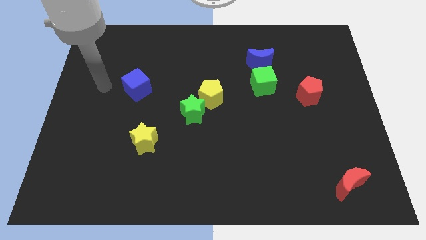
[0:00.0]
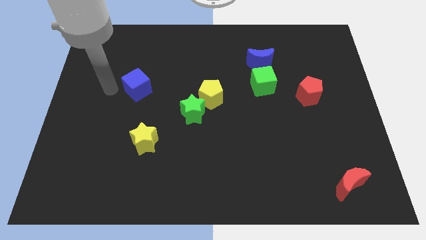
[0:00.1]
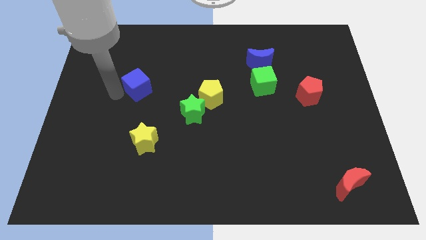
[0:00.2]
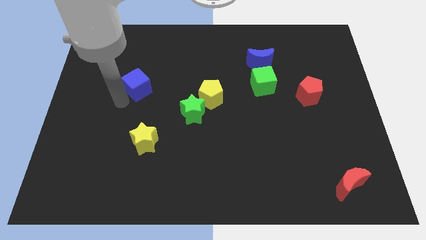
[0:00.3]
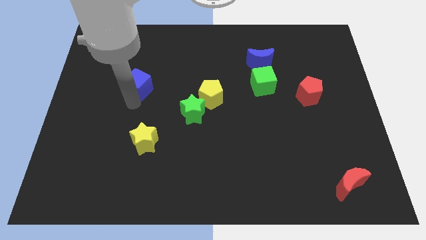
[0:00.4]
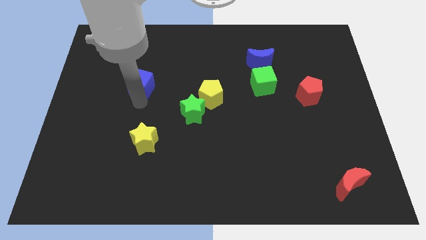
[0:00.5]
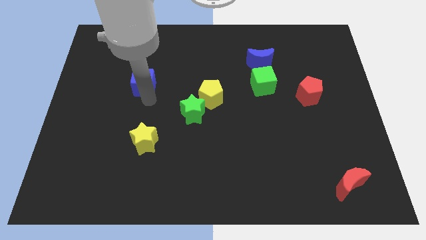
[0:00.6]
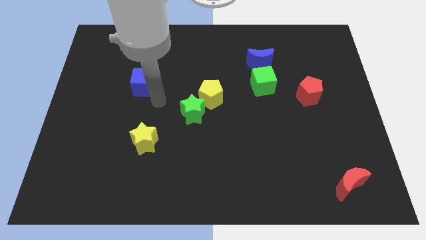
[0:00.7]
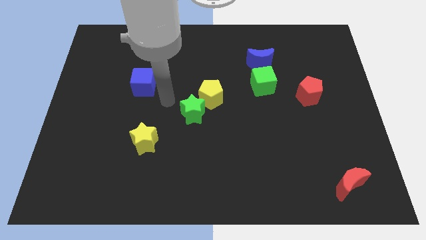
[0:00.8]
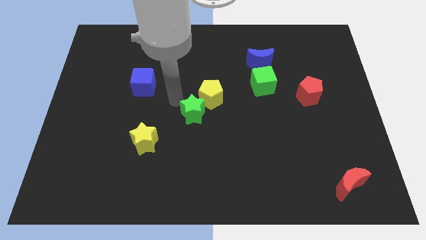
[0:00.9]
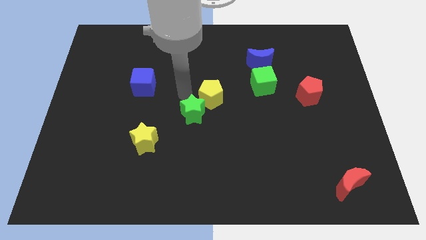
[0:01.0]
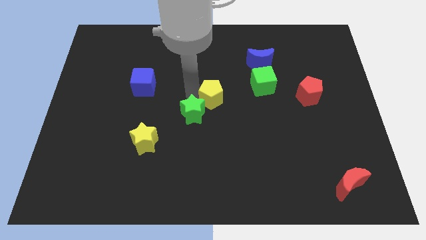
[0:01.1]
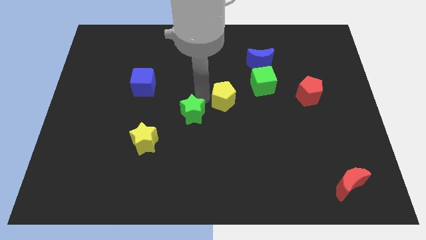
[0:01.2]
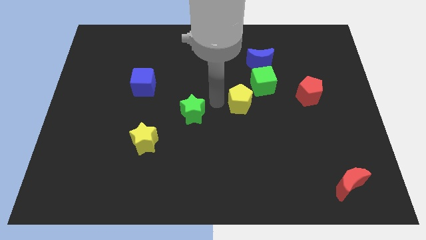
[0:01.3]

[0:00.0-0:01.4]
move the green star away from the yellow pentagon

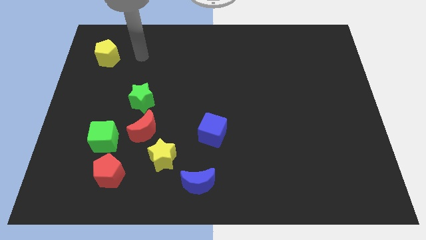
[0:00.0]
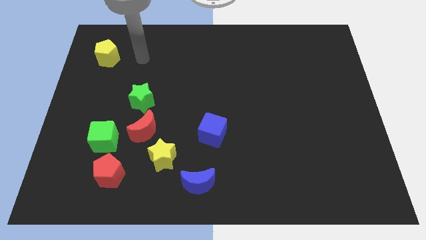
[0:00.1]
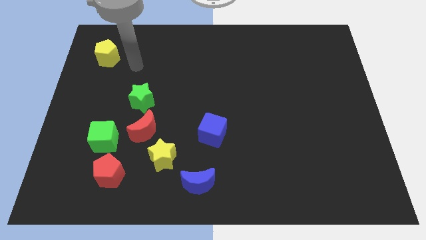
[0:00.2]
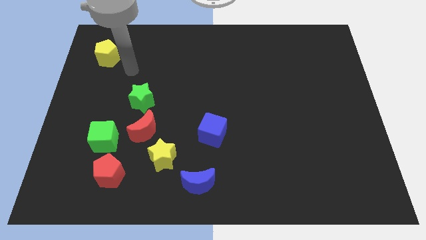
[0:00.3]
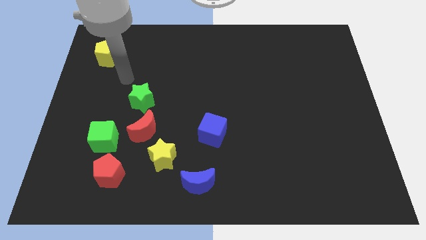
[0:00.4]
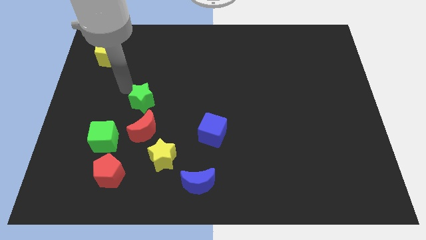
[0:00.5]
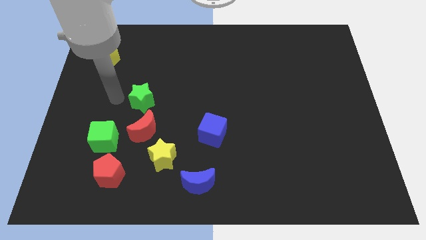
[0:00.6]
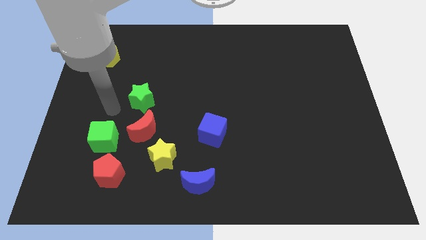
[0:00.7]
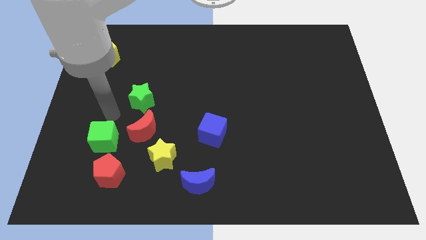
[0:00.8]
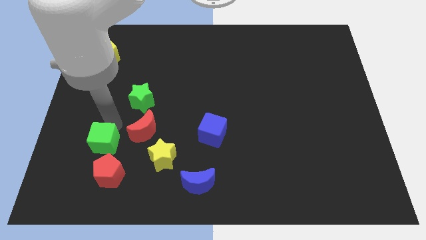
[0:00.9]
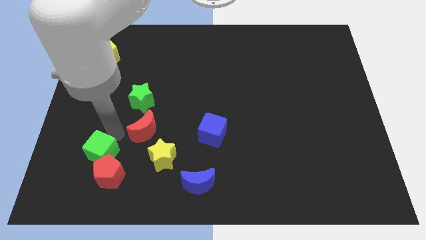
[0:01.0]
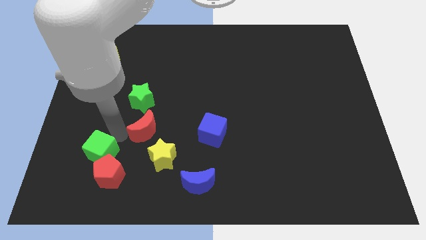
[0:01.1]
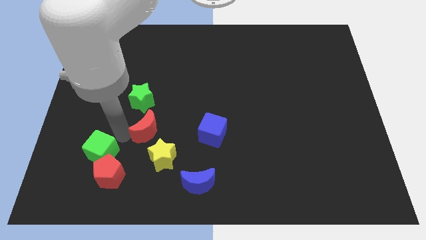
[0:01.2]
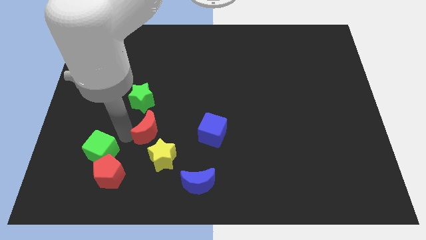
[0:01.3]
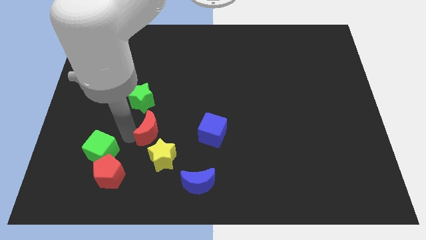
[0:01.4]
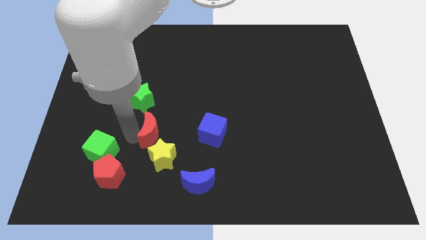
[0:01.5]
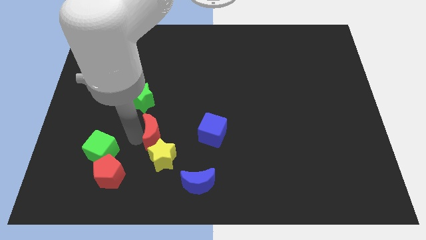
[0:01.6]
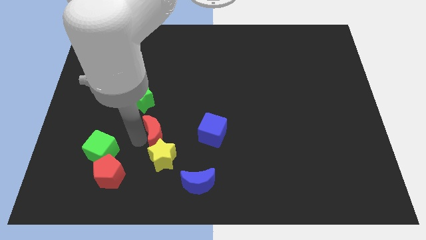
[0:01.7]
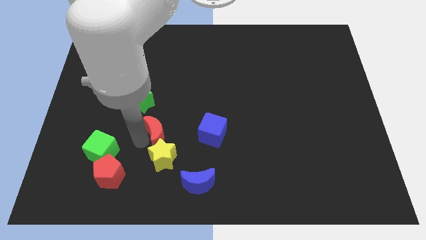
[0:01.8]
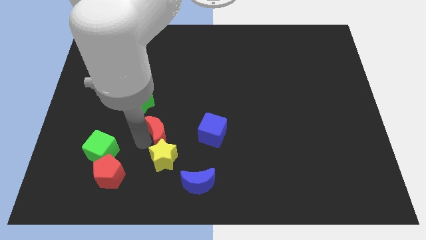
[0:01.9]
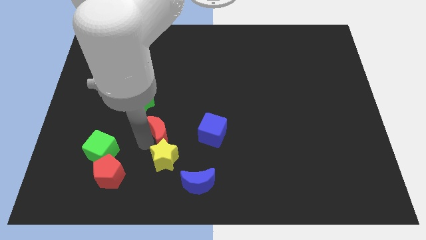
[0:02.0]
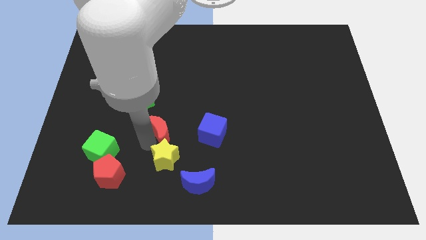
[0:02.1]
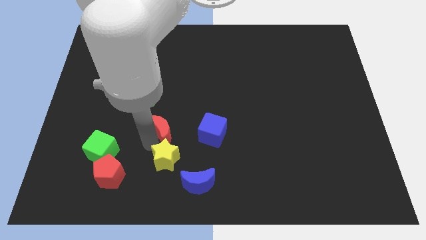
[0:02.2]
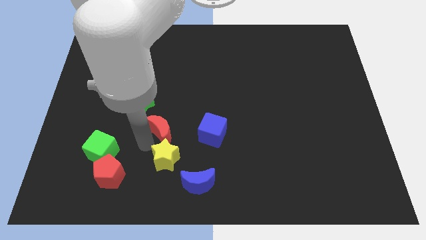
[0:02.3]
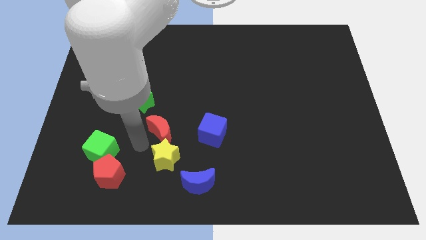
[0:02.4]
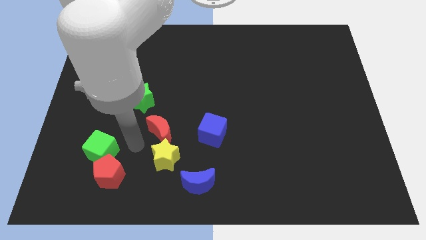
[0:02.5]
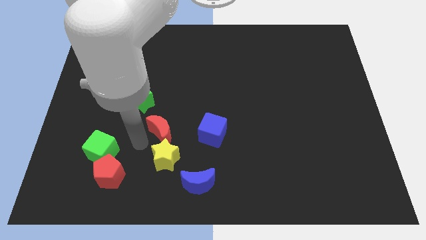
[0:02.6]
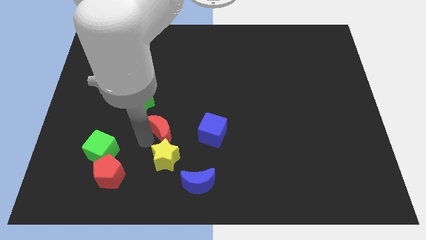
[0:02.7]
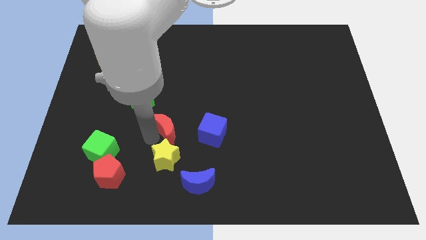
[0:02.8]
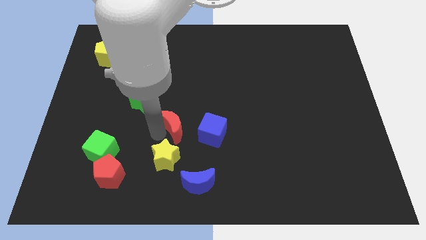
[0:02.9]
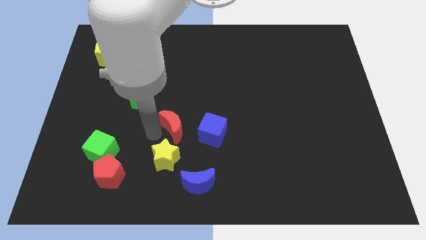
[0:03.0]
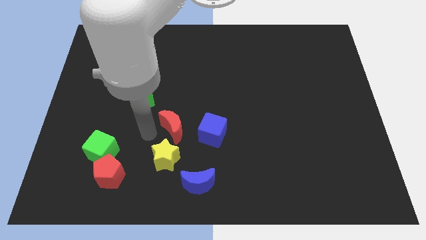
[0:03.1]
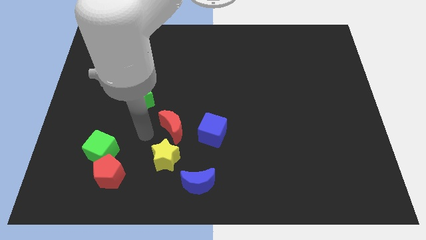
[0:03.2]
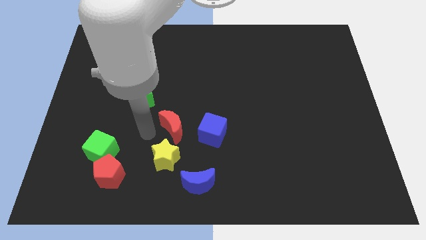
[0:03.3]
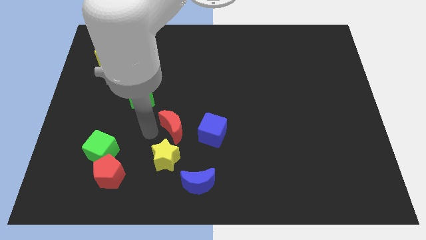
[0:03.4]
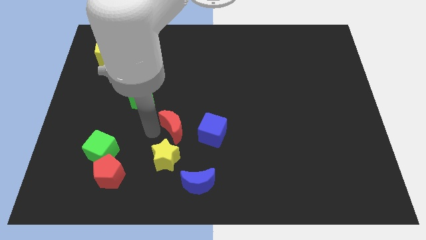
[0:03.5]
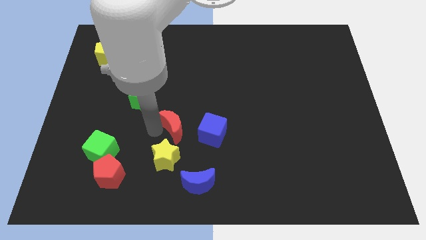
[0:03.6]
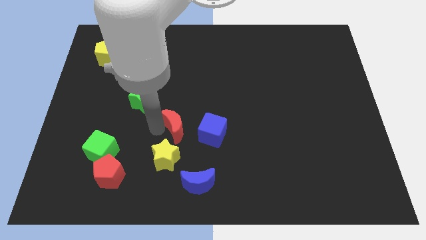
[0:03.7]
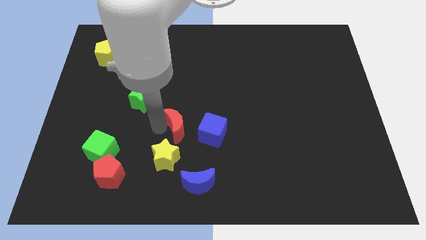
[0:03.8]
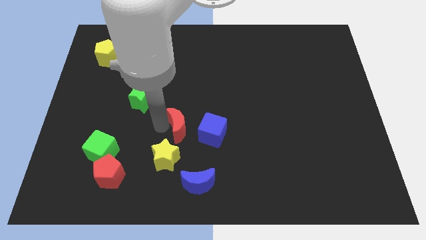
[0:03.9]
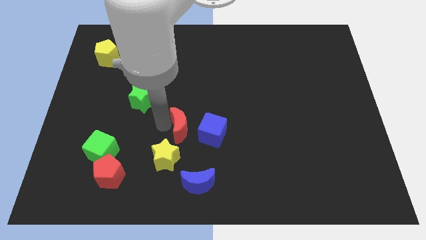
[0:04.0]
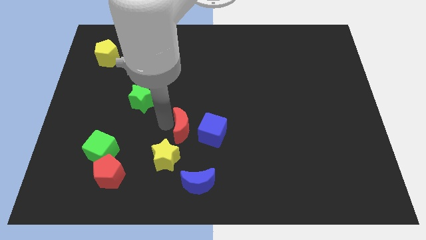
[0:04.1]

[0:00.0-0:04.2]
pull the red moon apart from the clump

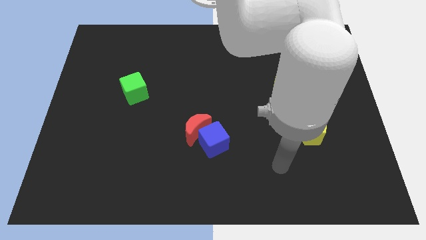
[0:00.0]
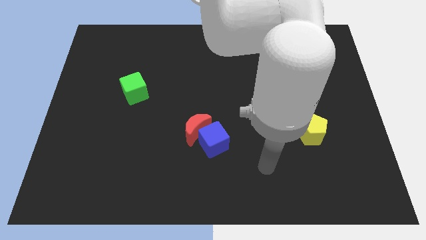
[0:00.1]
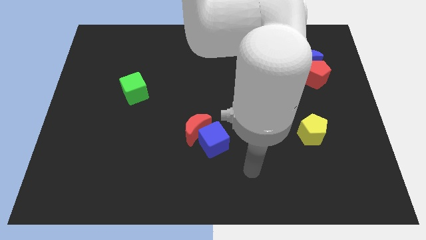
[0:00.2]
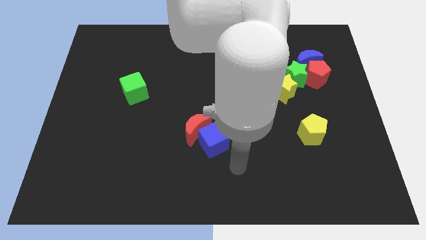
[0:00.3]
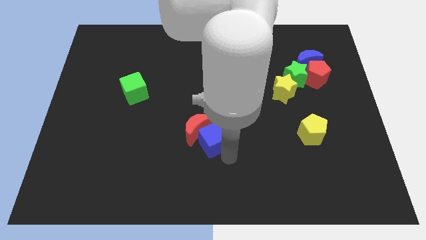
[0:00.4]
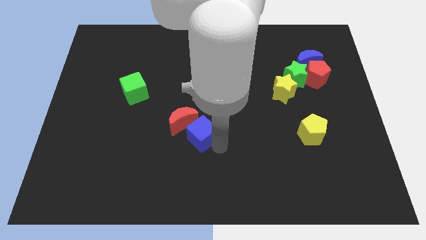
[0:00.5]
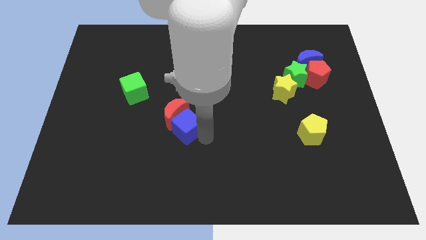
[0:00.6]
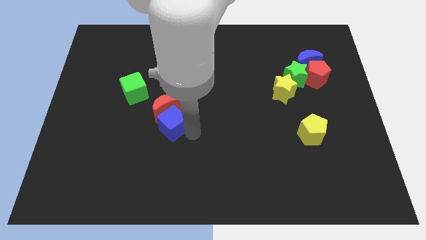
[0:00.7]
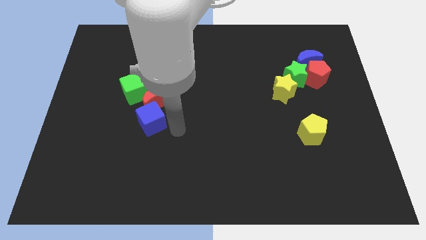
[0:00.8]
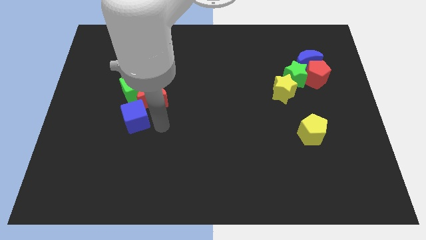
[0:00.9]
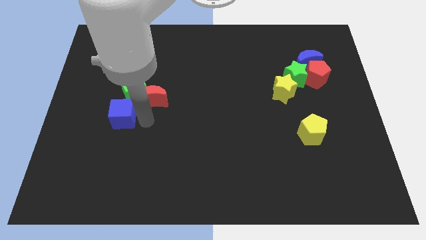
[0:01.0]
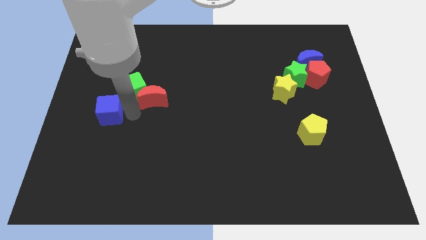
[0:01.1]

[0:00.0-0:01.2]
pull the red moon apart from the blue cube

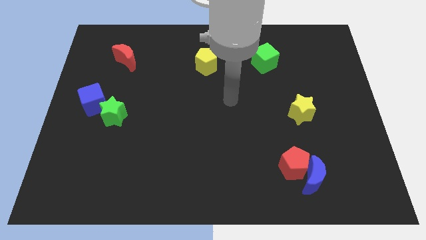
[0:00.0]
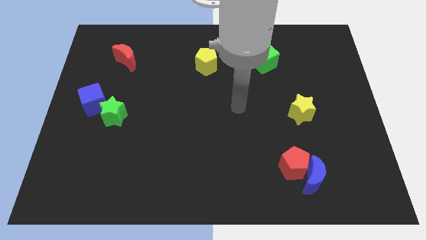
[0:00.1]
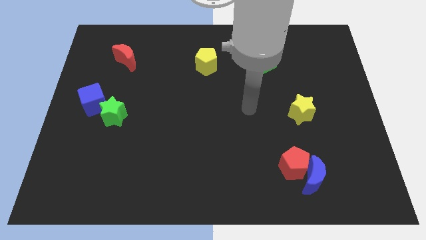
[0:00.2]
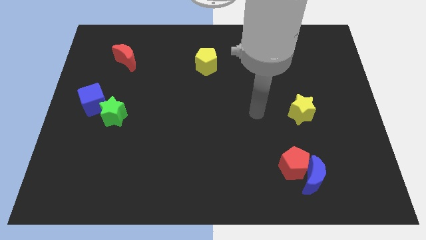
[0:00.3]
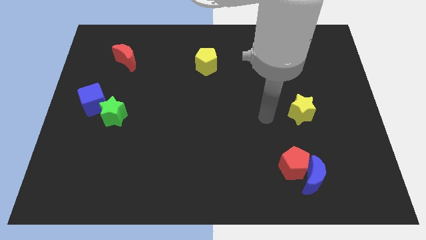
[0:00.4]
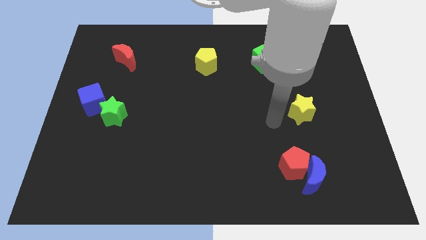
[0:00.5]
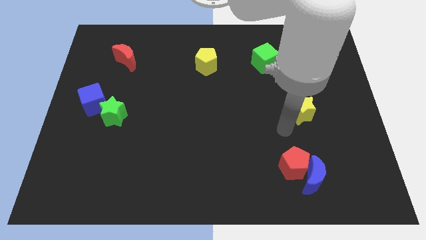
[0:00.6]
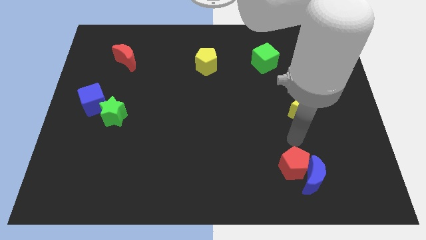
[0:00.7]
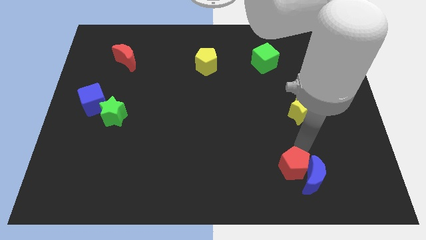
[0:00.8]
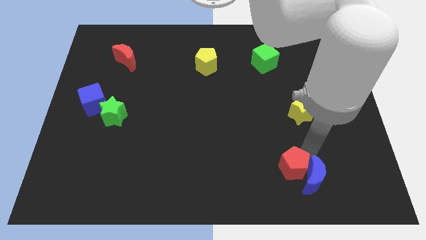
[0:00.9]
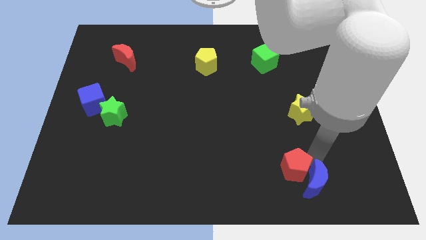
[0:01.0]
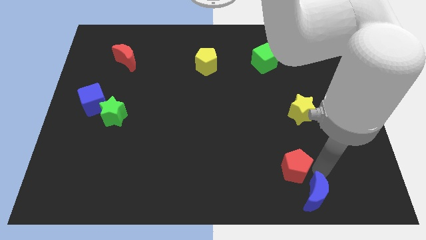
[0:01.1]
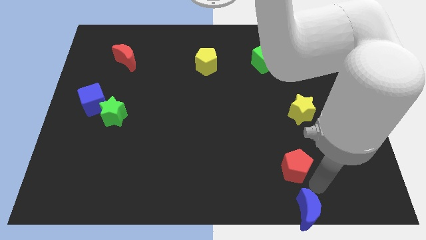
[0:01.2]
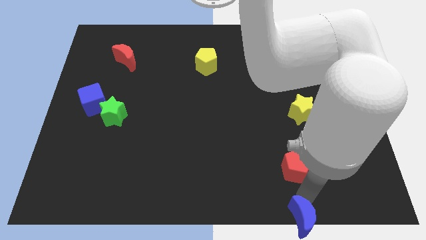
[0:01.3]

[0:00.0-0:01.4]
pull the red pentagon apart from the blue moon

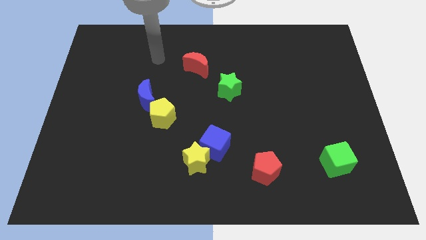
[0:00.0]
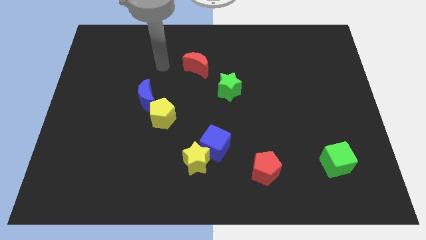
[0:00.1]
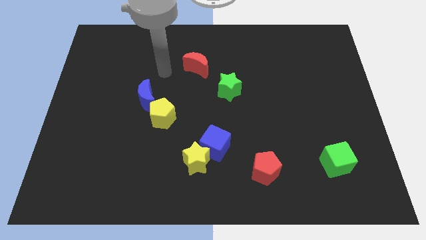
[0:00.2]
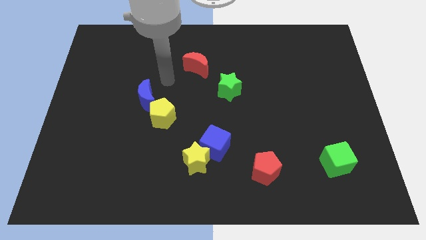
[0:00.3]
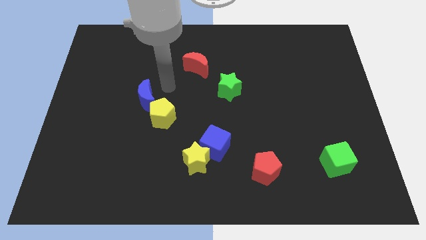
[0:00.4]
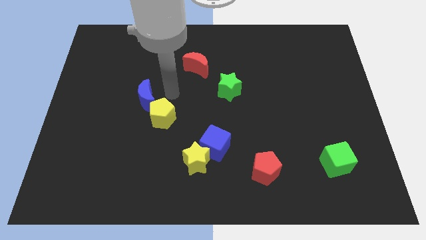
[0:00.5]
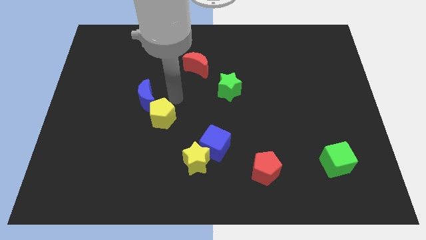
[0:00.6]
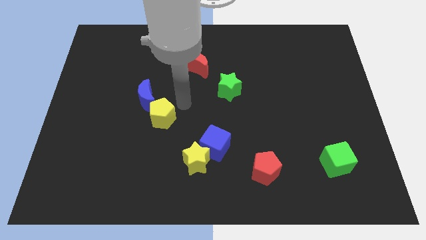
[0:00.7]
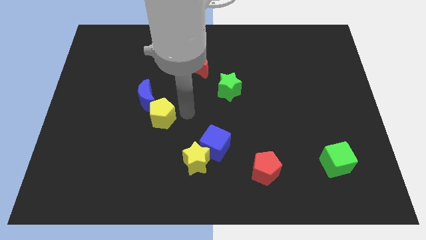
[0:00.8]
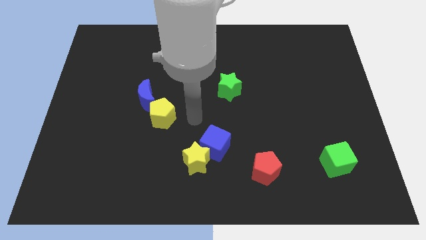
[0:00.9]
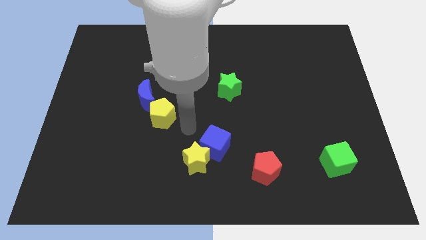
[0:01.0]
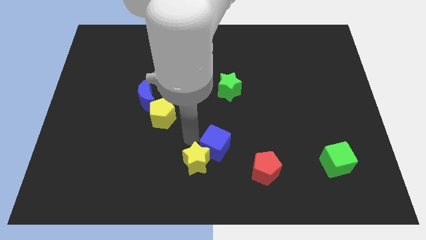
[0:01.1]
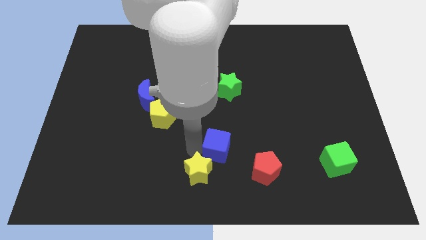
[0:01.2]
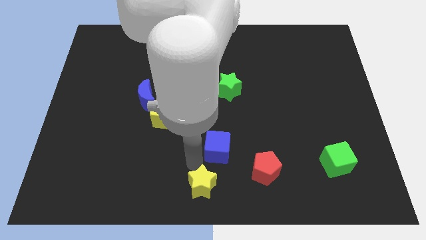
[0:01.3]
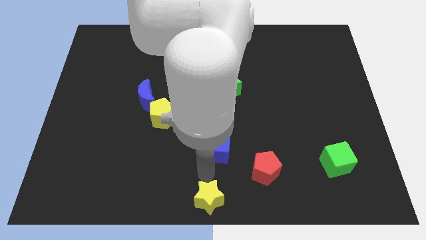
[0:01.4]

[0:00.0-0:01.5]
separate the blue cube from the yellow star
